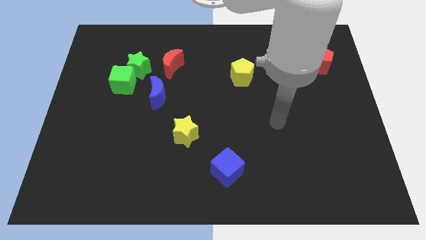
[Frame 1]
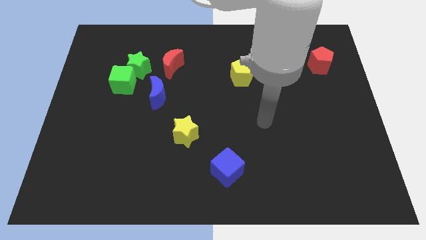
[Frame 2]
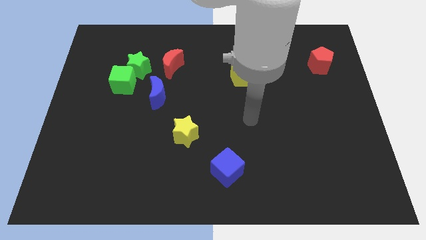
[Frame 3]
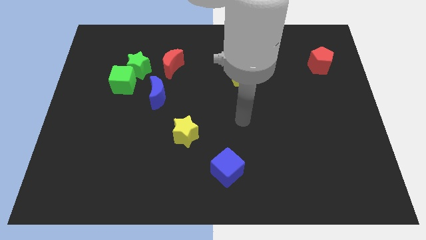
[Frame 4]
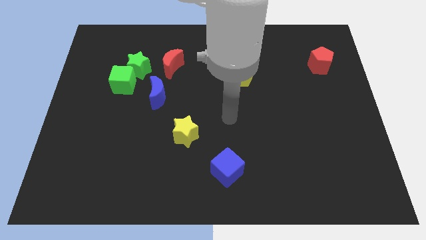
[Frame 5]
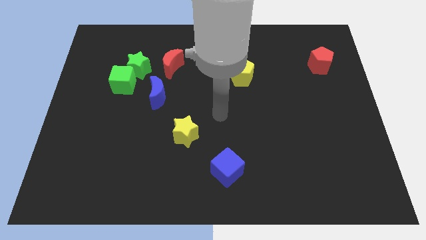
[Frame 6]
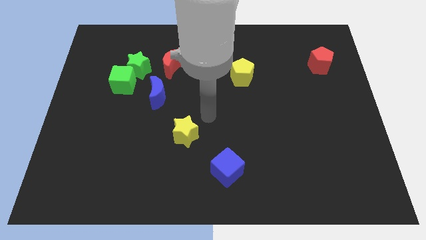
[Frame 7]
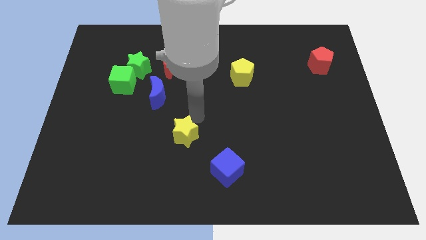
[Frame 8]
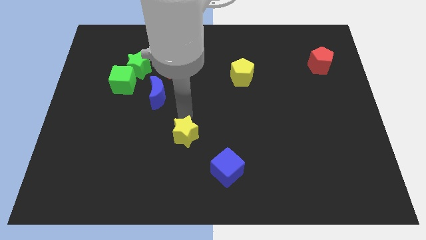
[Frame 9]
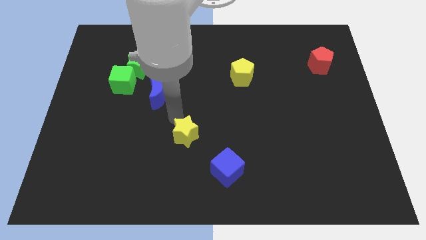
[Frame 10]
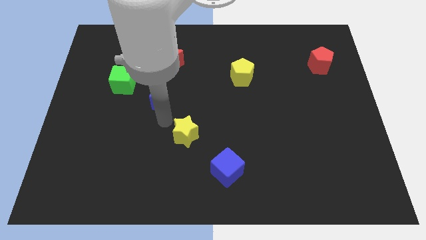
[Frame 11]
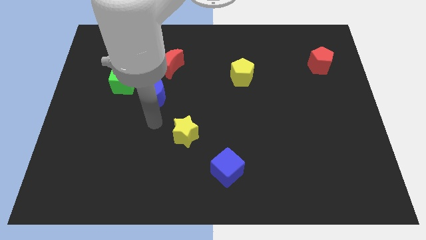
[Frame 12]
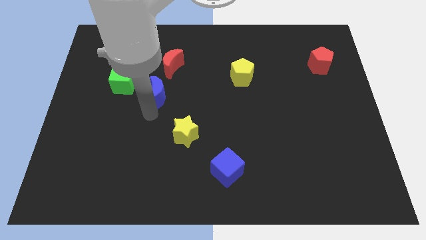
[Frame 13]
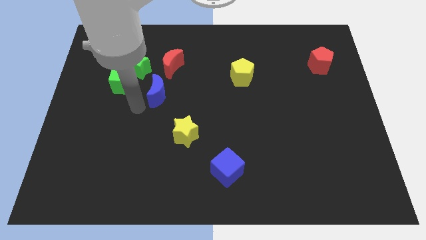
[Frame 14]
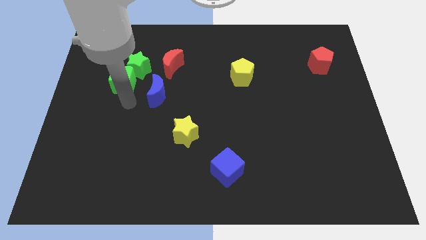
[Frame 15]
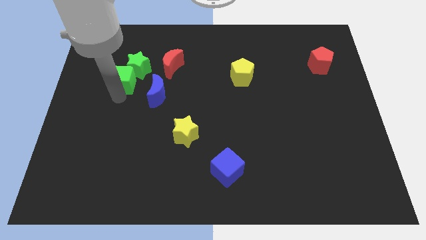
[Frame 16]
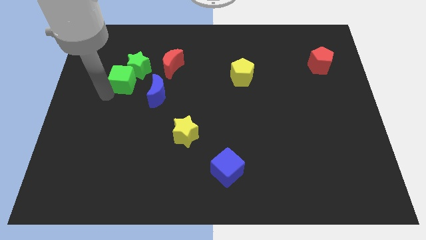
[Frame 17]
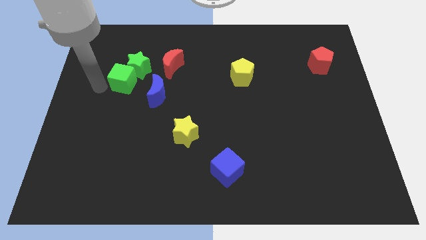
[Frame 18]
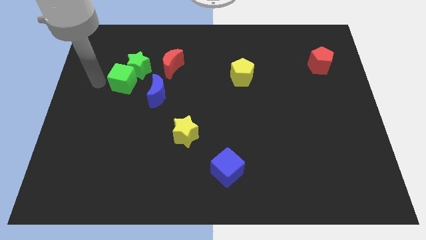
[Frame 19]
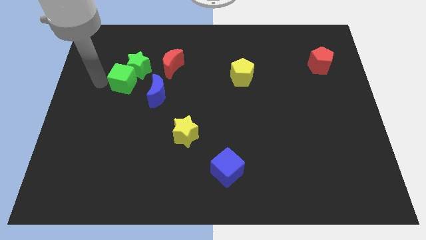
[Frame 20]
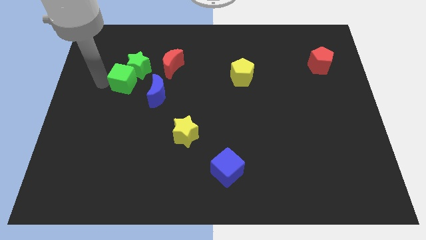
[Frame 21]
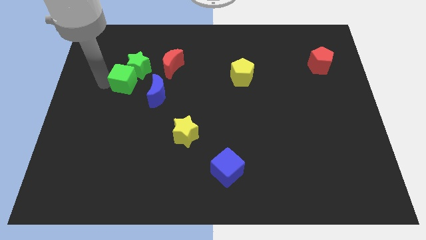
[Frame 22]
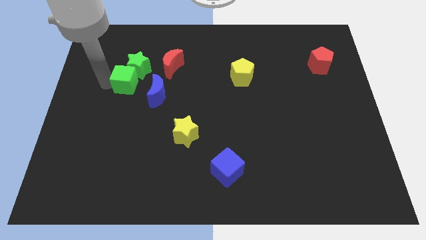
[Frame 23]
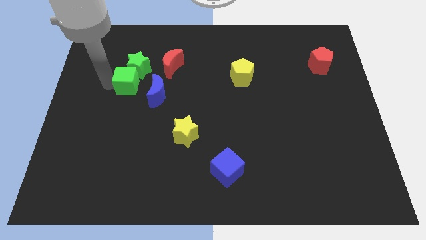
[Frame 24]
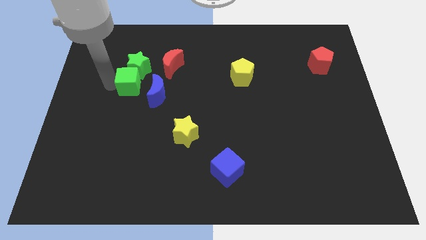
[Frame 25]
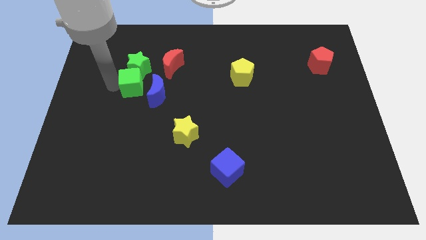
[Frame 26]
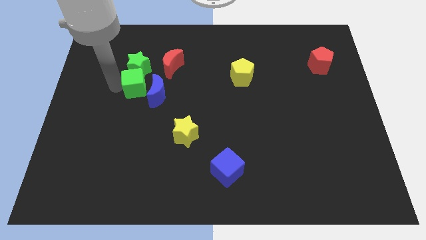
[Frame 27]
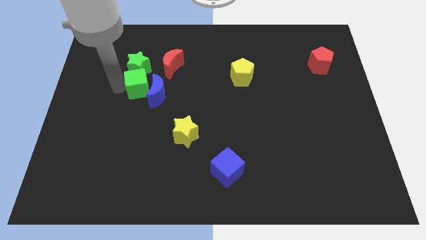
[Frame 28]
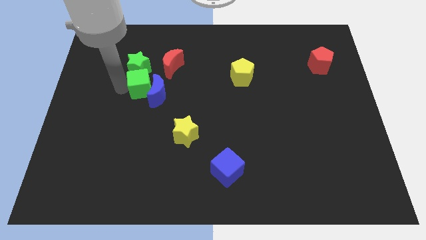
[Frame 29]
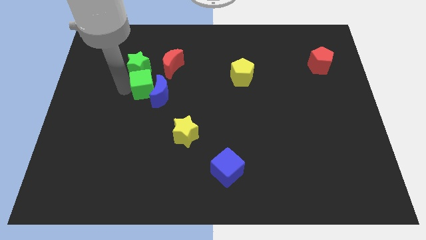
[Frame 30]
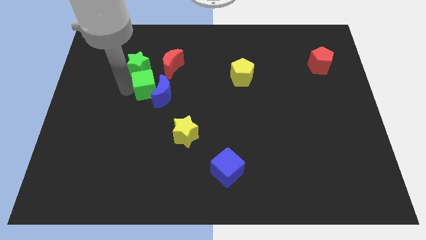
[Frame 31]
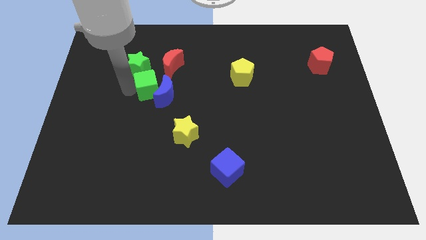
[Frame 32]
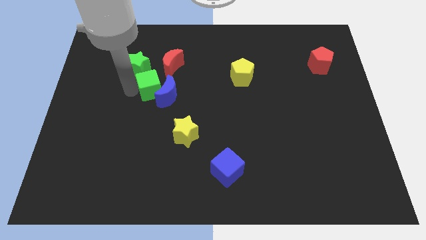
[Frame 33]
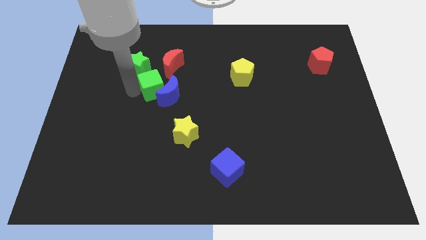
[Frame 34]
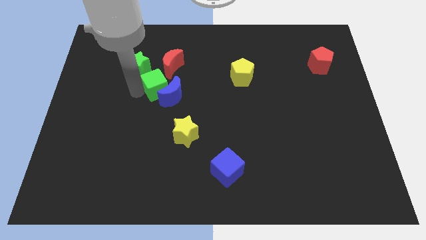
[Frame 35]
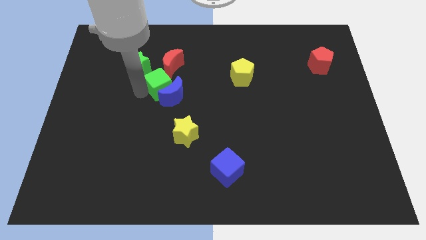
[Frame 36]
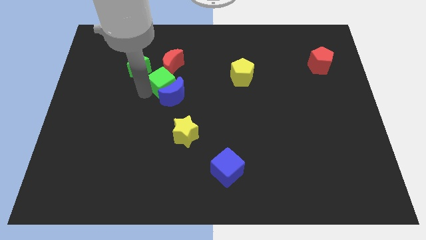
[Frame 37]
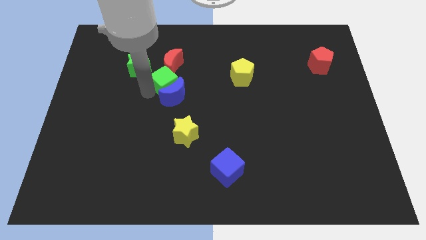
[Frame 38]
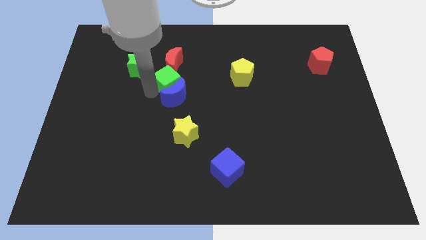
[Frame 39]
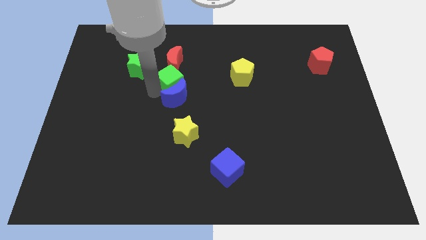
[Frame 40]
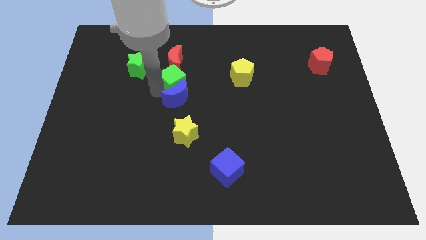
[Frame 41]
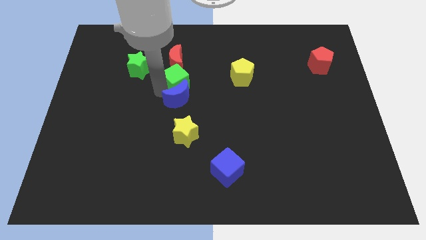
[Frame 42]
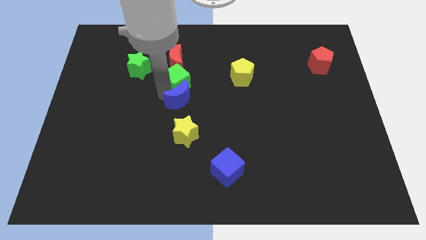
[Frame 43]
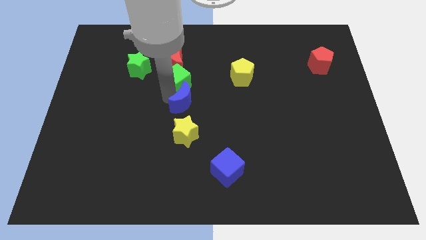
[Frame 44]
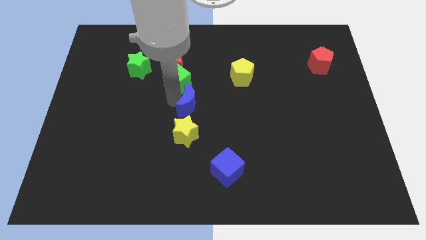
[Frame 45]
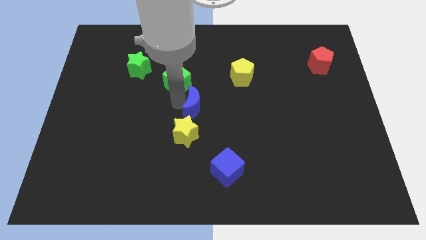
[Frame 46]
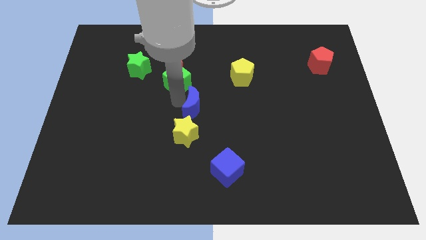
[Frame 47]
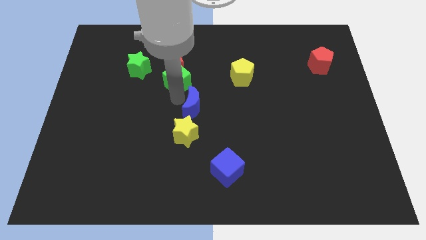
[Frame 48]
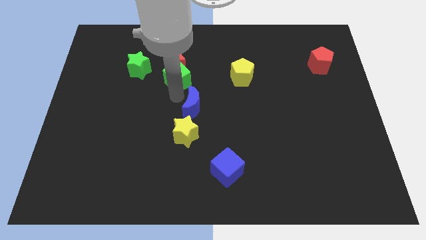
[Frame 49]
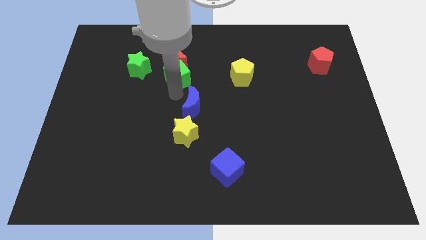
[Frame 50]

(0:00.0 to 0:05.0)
slide the green cube towards the red moon

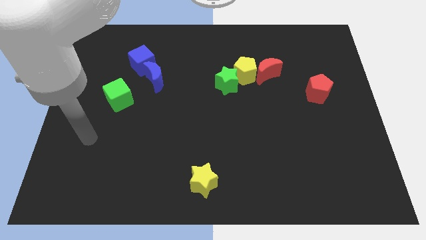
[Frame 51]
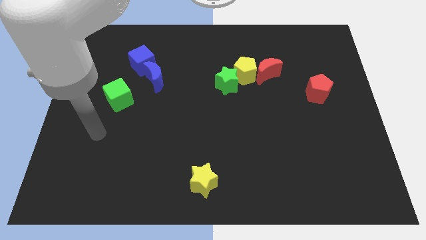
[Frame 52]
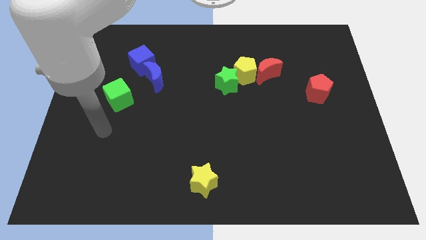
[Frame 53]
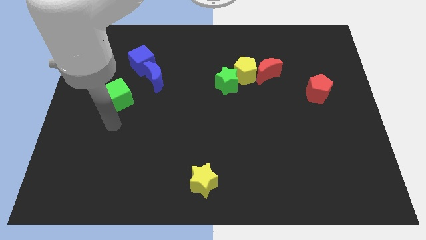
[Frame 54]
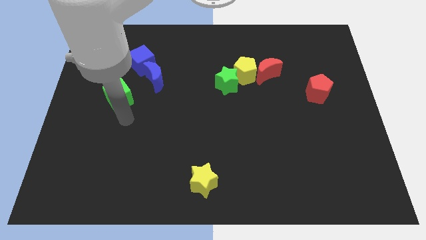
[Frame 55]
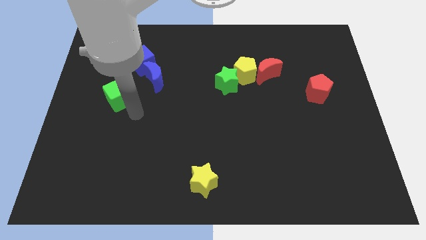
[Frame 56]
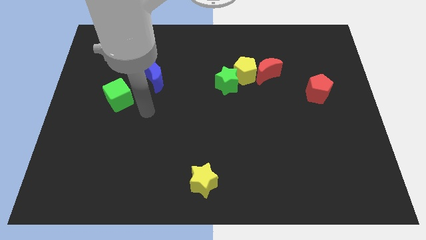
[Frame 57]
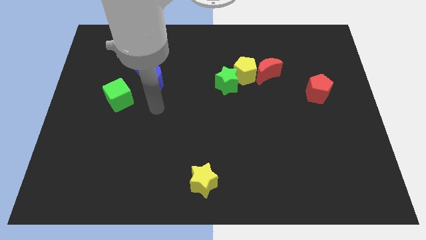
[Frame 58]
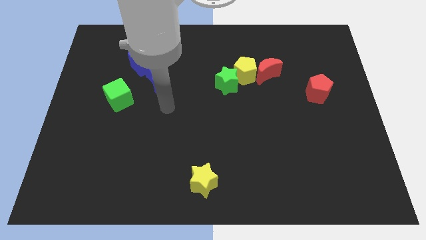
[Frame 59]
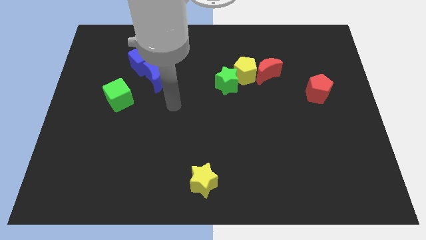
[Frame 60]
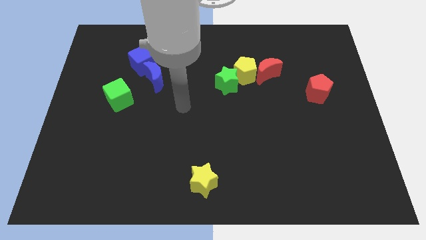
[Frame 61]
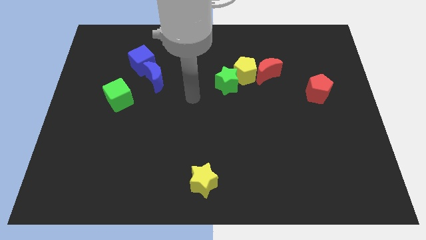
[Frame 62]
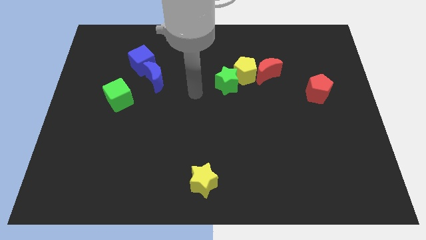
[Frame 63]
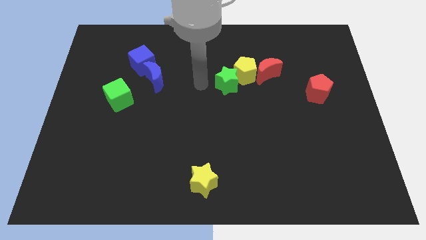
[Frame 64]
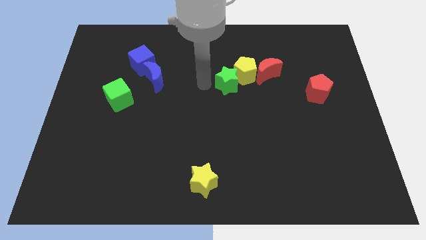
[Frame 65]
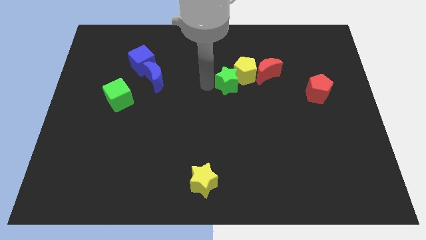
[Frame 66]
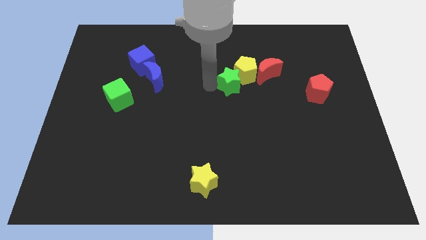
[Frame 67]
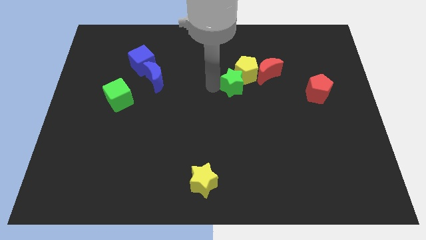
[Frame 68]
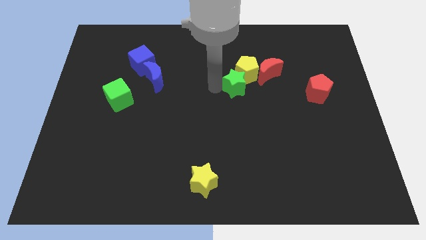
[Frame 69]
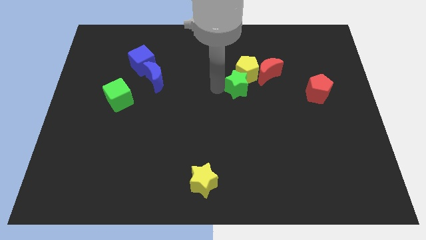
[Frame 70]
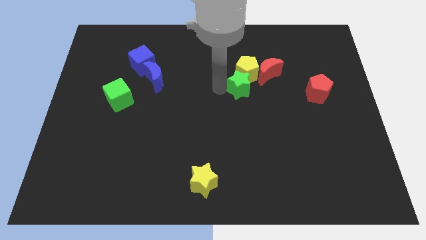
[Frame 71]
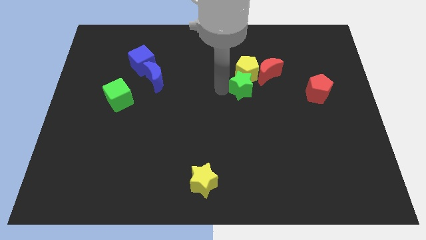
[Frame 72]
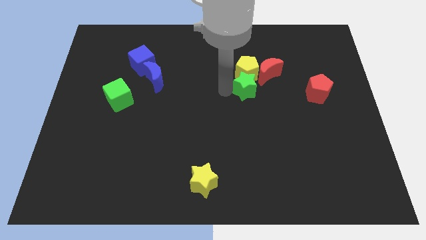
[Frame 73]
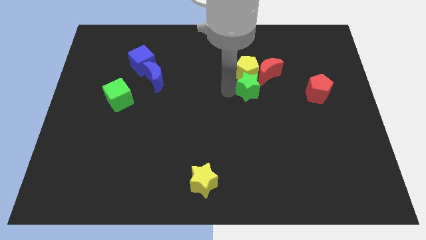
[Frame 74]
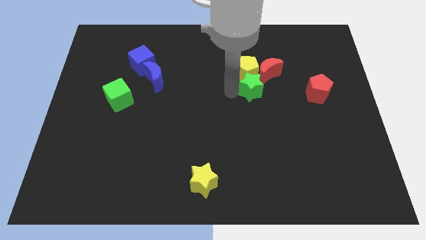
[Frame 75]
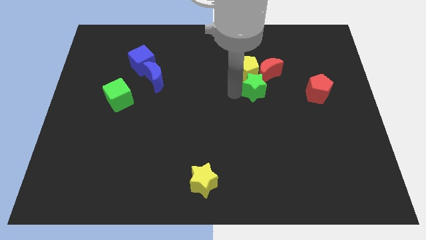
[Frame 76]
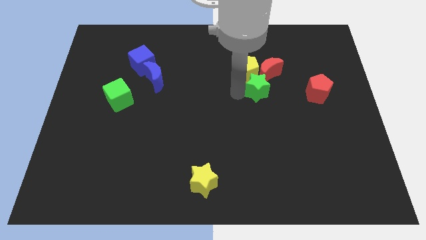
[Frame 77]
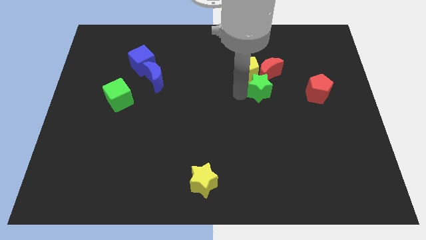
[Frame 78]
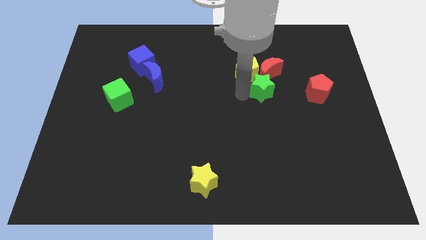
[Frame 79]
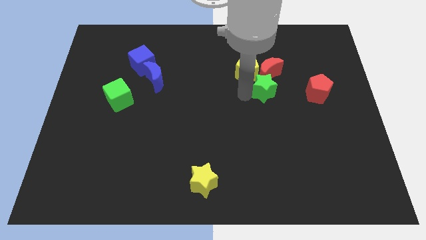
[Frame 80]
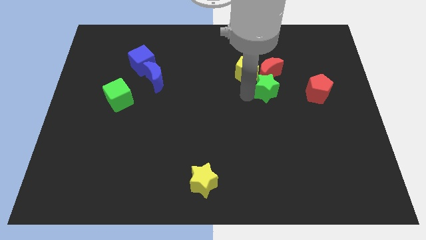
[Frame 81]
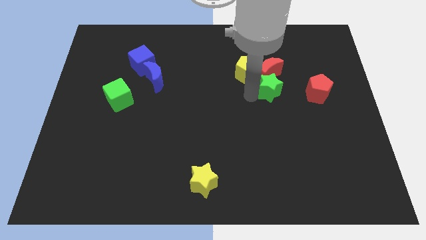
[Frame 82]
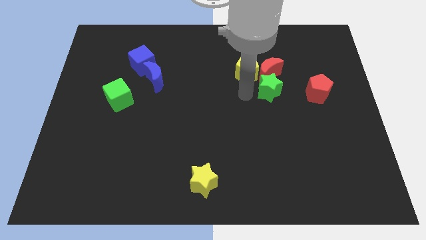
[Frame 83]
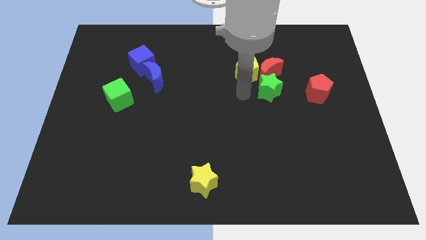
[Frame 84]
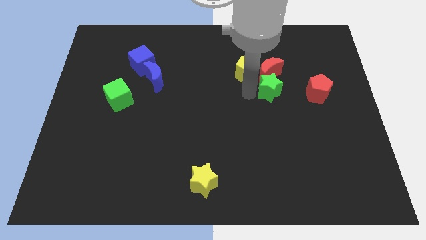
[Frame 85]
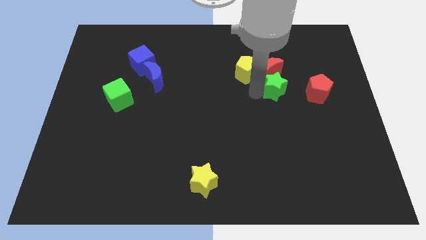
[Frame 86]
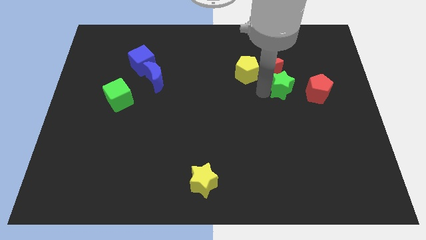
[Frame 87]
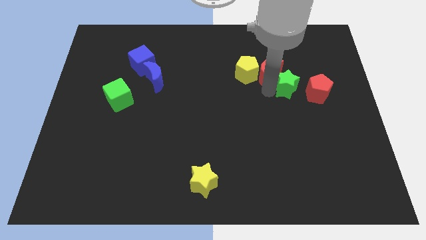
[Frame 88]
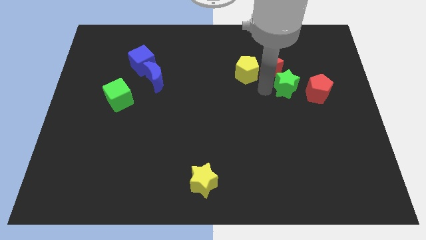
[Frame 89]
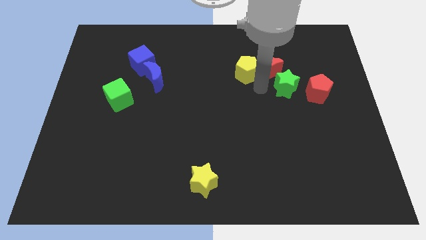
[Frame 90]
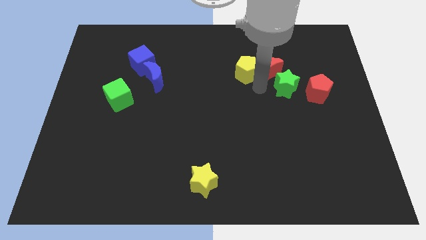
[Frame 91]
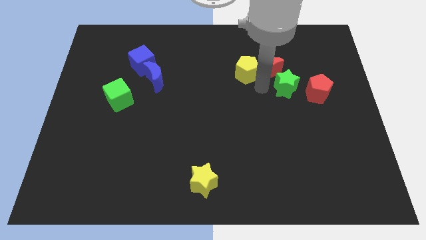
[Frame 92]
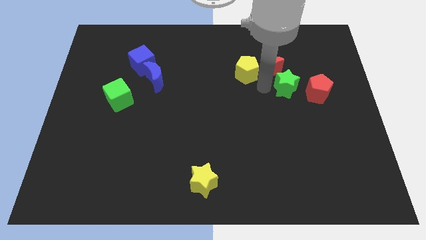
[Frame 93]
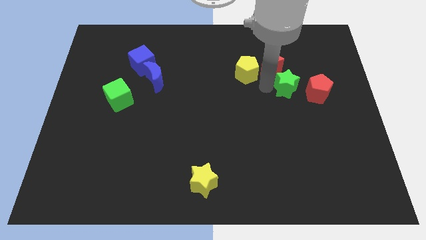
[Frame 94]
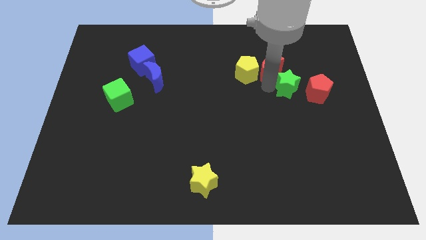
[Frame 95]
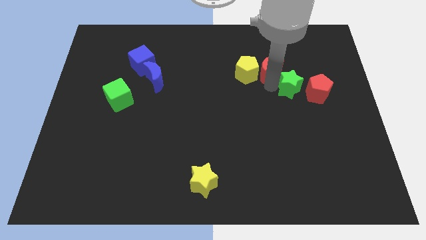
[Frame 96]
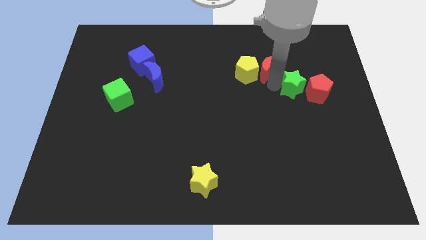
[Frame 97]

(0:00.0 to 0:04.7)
slide the green star towards the red pentagon
